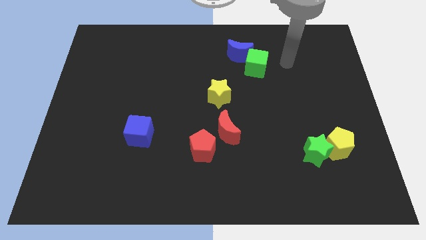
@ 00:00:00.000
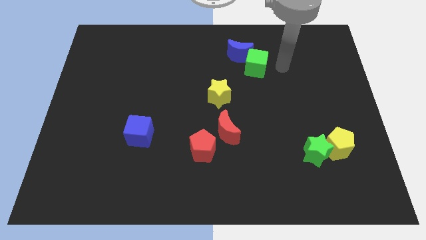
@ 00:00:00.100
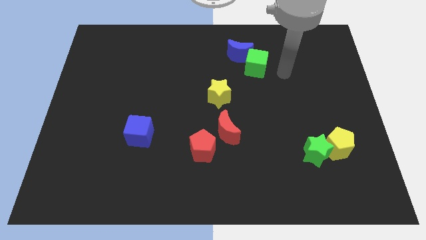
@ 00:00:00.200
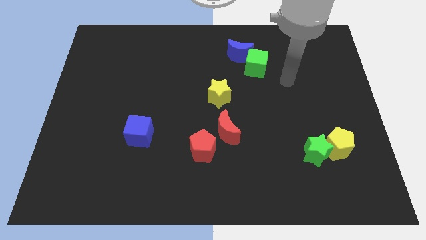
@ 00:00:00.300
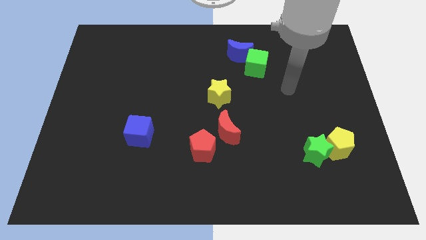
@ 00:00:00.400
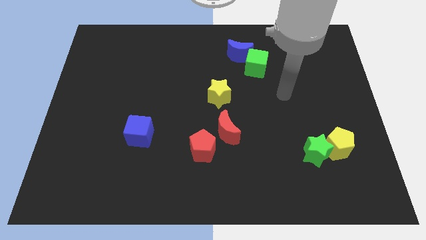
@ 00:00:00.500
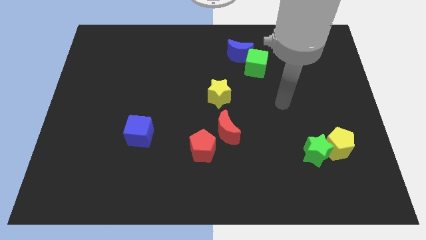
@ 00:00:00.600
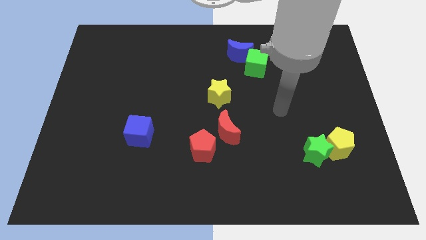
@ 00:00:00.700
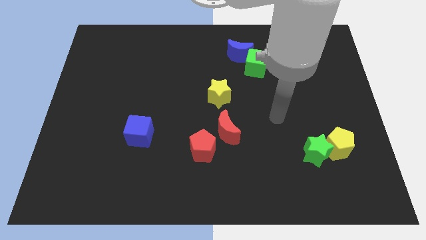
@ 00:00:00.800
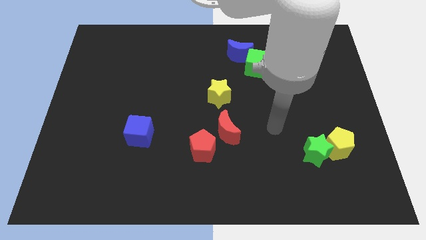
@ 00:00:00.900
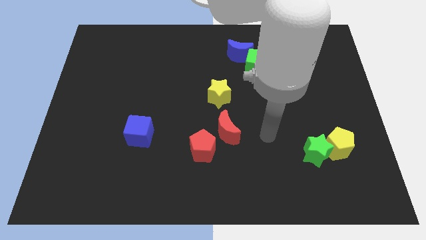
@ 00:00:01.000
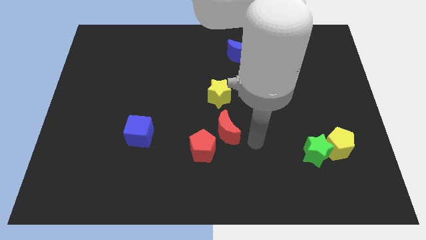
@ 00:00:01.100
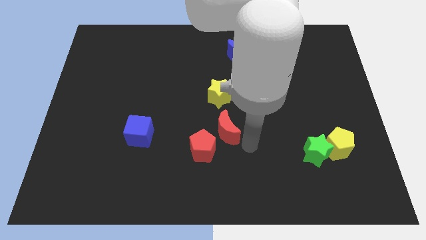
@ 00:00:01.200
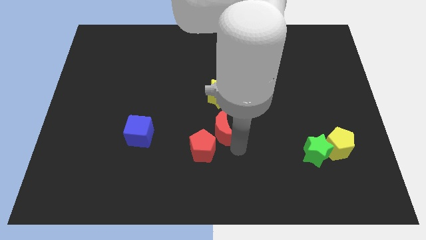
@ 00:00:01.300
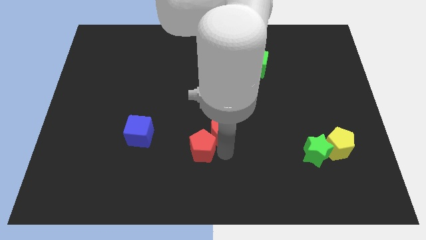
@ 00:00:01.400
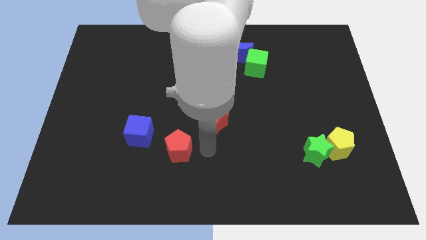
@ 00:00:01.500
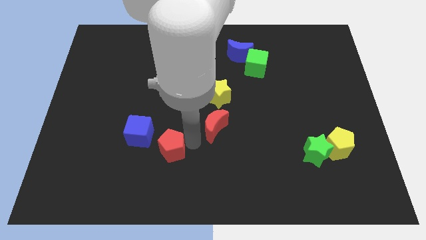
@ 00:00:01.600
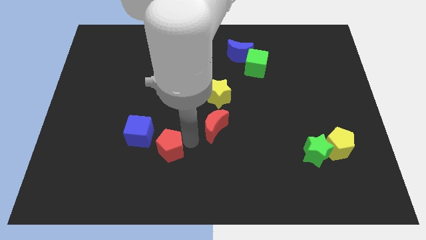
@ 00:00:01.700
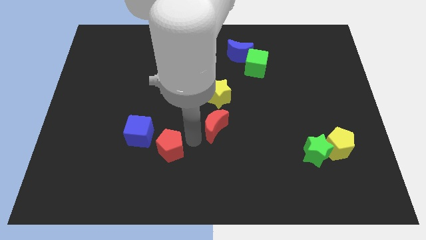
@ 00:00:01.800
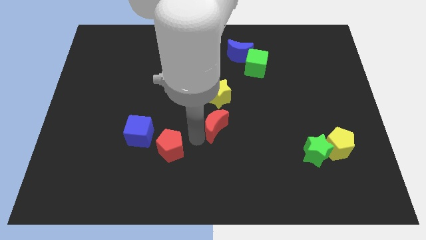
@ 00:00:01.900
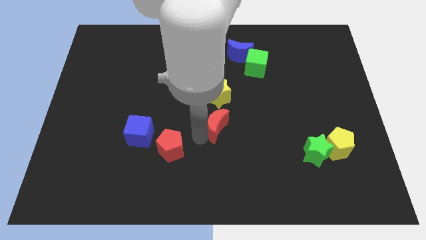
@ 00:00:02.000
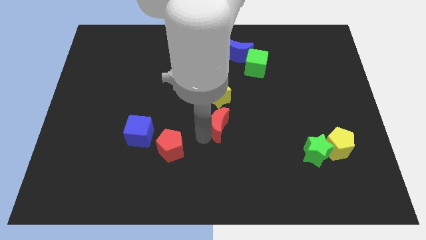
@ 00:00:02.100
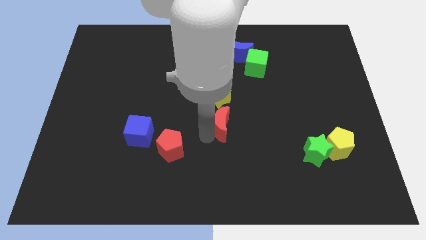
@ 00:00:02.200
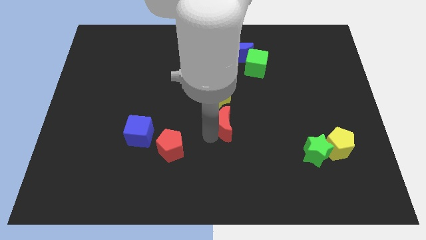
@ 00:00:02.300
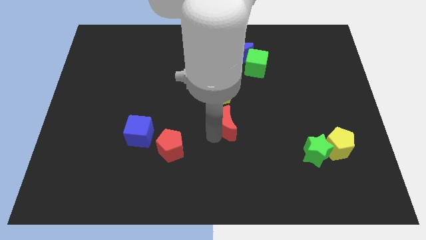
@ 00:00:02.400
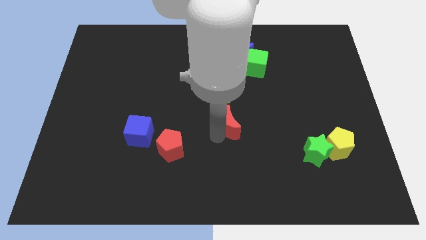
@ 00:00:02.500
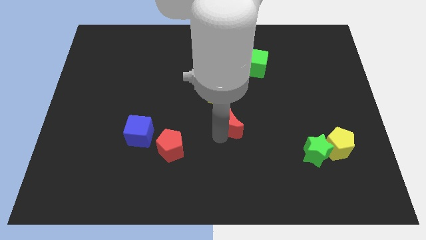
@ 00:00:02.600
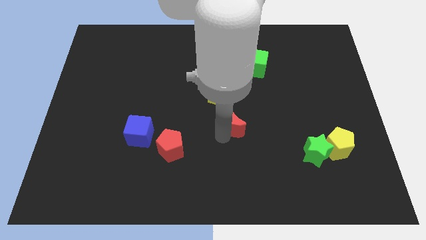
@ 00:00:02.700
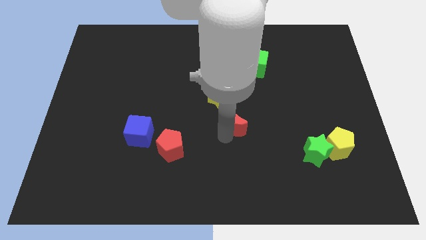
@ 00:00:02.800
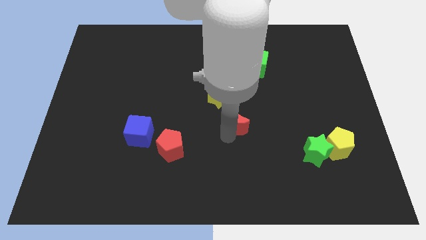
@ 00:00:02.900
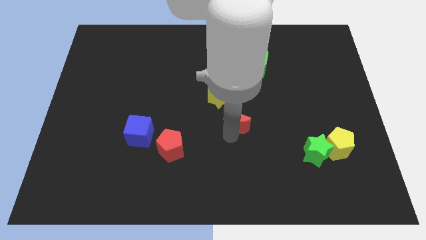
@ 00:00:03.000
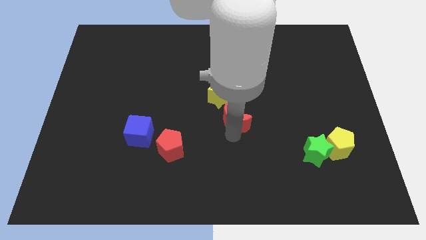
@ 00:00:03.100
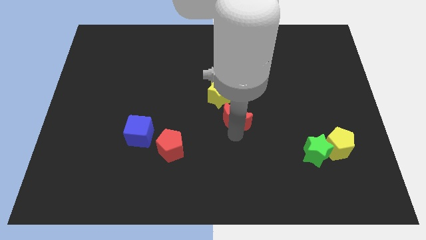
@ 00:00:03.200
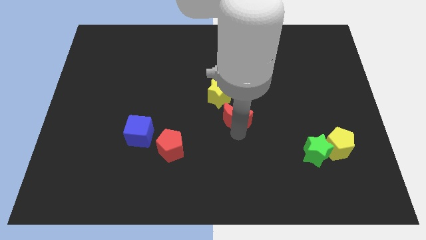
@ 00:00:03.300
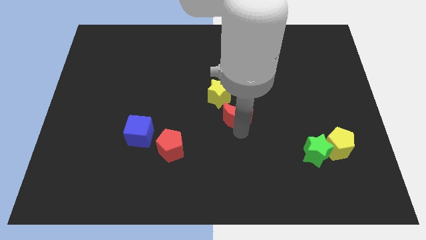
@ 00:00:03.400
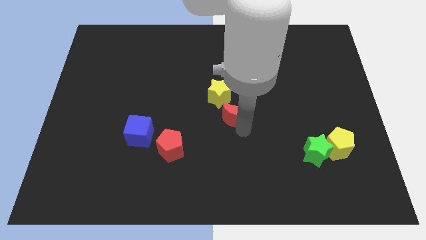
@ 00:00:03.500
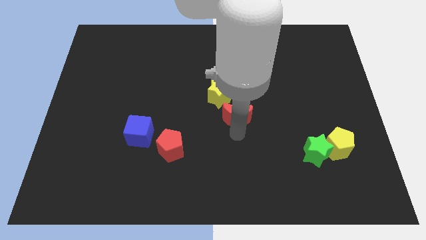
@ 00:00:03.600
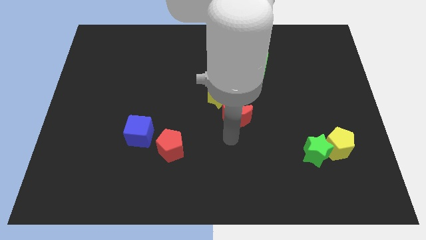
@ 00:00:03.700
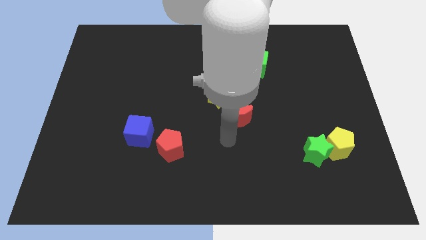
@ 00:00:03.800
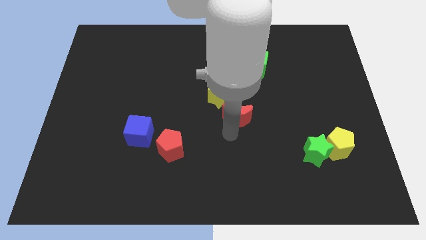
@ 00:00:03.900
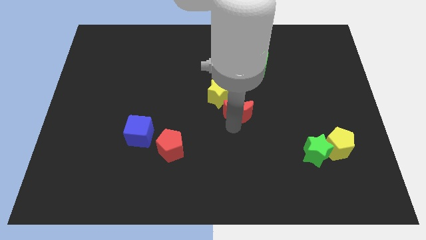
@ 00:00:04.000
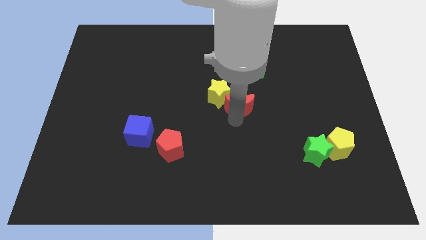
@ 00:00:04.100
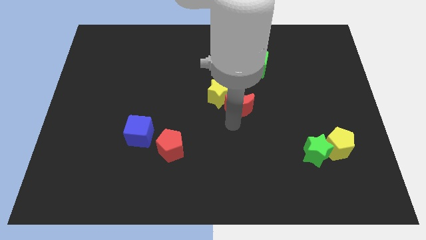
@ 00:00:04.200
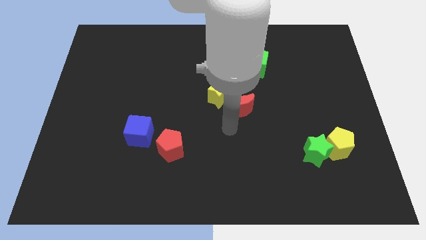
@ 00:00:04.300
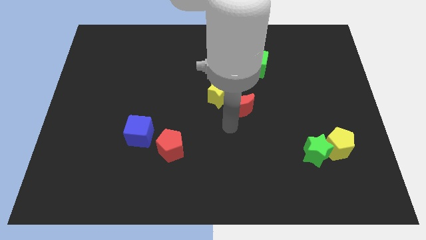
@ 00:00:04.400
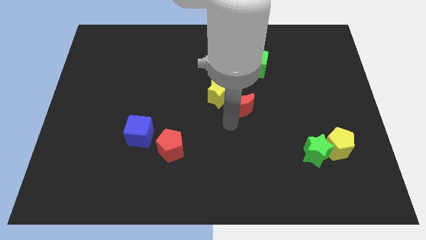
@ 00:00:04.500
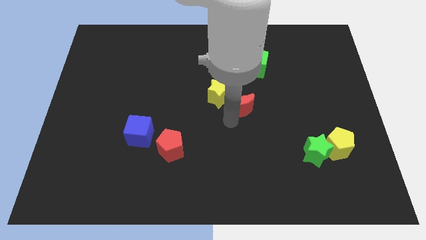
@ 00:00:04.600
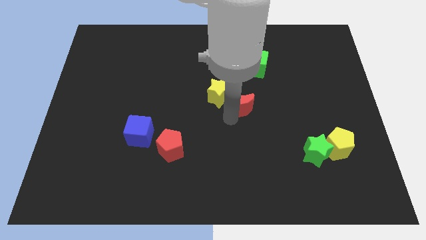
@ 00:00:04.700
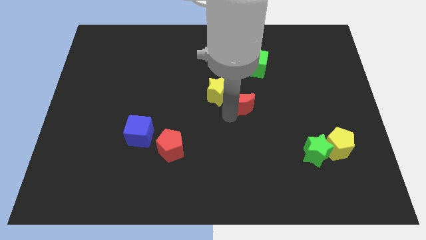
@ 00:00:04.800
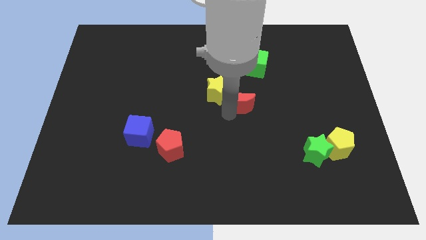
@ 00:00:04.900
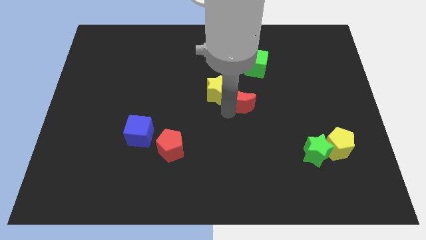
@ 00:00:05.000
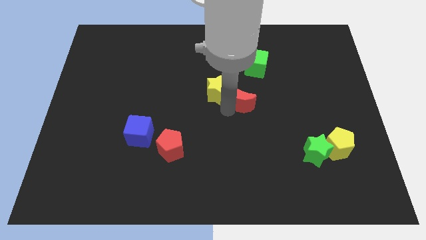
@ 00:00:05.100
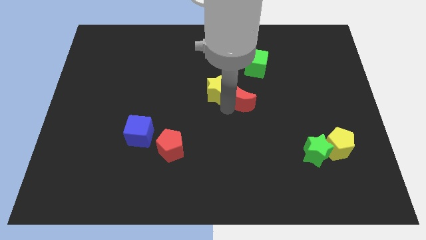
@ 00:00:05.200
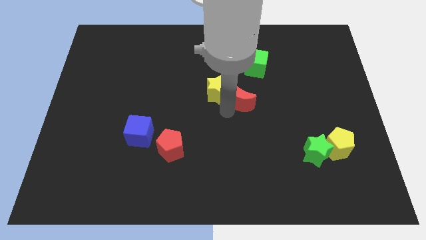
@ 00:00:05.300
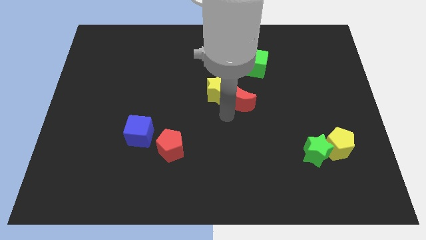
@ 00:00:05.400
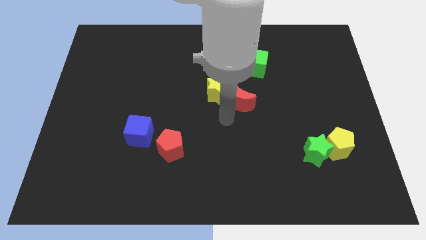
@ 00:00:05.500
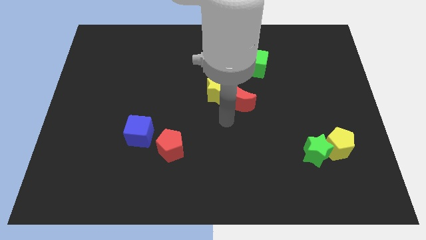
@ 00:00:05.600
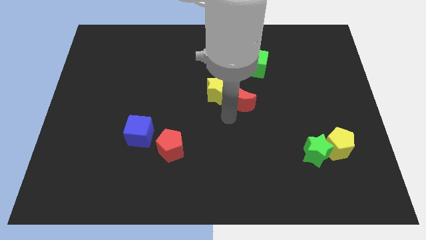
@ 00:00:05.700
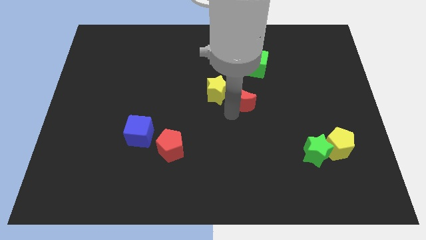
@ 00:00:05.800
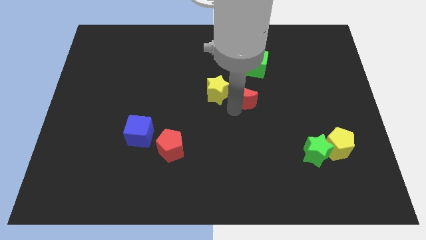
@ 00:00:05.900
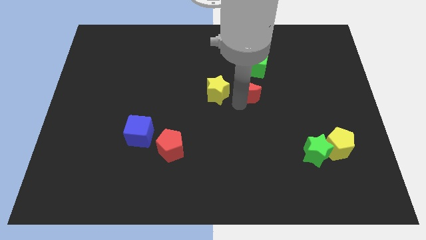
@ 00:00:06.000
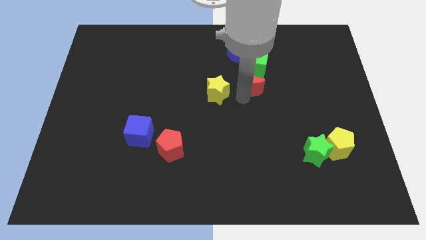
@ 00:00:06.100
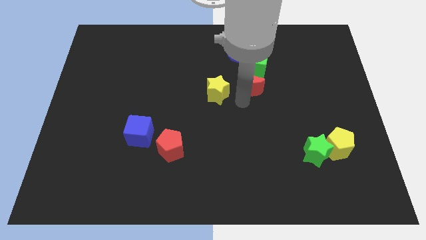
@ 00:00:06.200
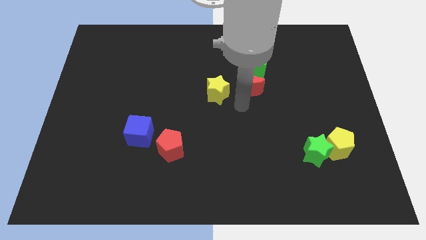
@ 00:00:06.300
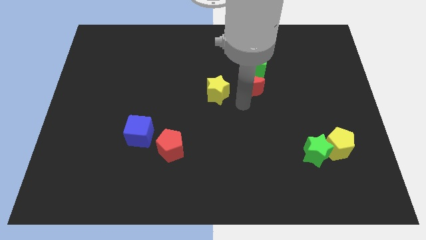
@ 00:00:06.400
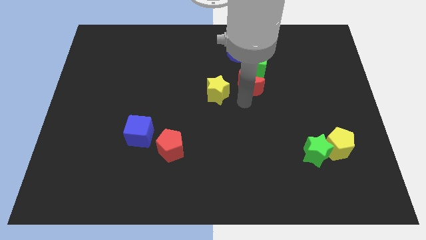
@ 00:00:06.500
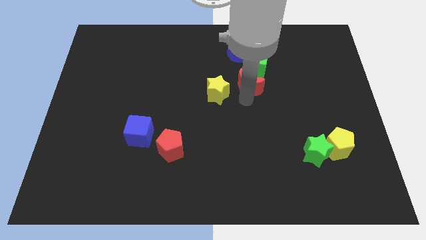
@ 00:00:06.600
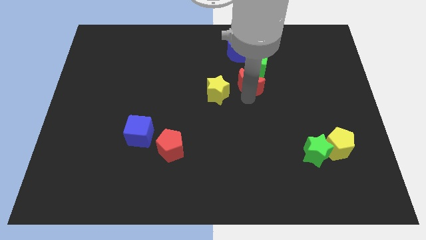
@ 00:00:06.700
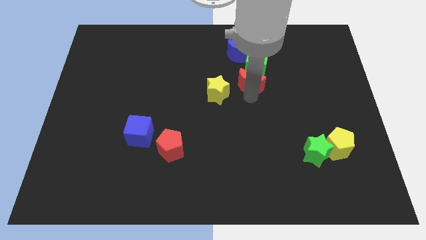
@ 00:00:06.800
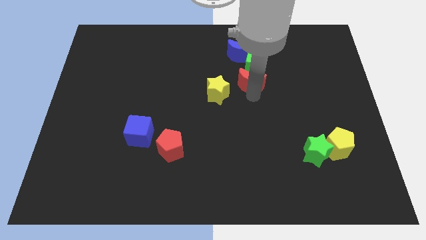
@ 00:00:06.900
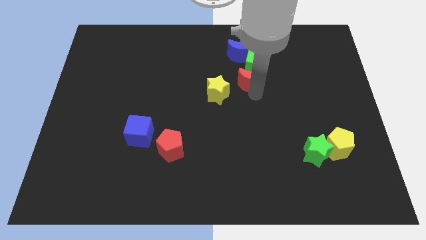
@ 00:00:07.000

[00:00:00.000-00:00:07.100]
move the red moon close to the green cube
